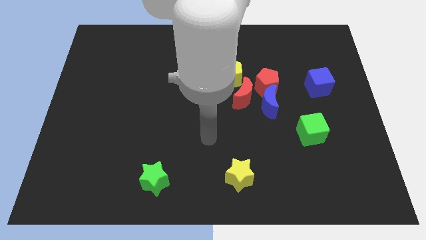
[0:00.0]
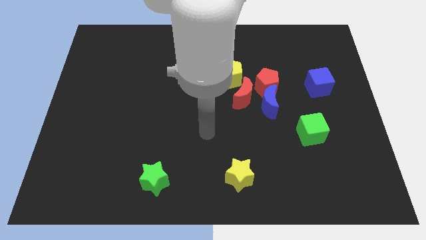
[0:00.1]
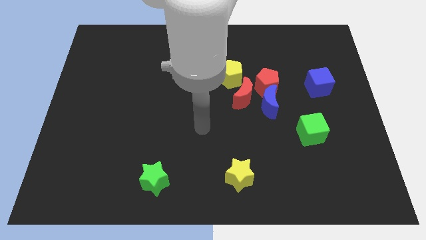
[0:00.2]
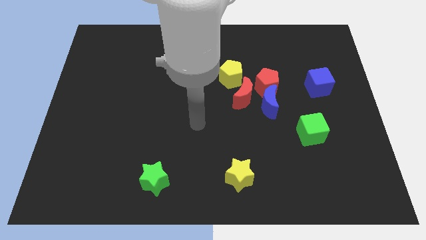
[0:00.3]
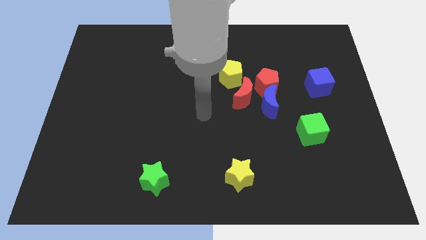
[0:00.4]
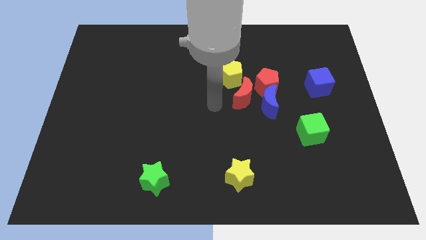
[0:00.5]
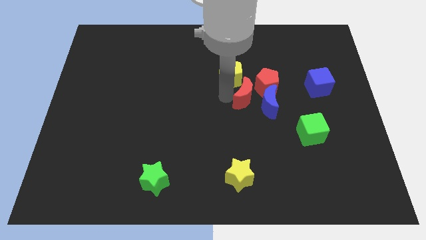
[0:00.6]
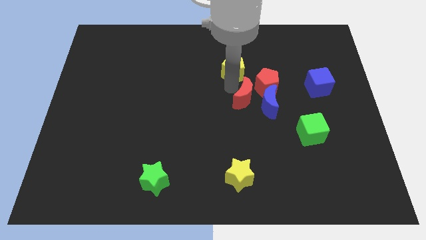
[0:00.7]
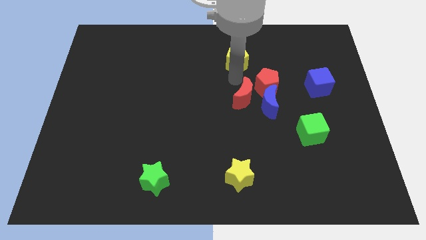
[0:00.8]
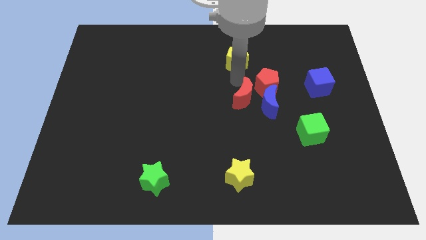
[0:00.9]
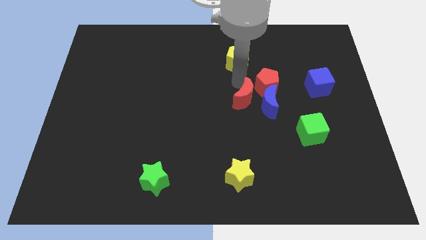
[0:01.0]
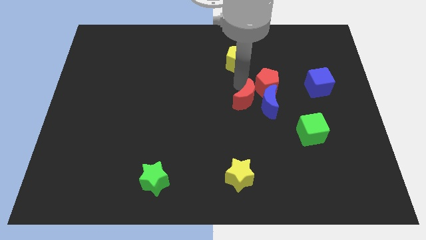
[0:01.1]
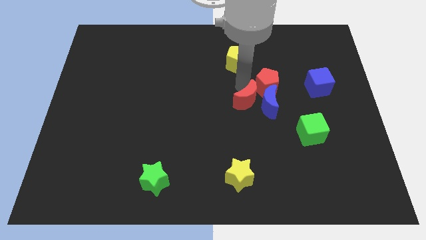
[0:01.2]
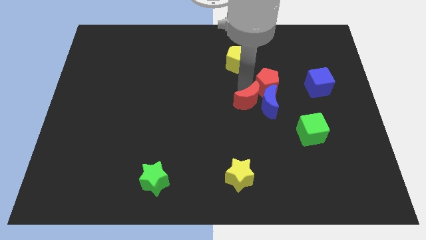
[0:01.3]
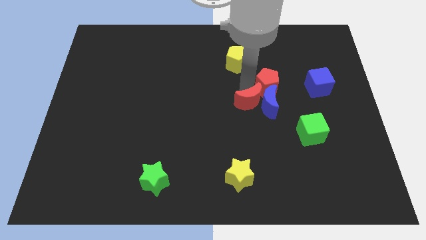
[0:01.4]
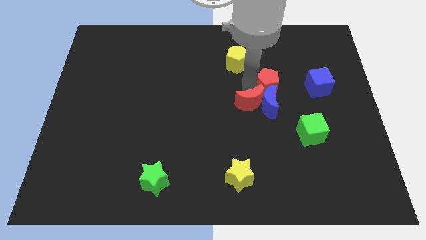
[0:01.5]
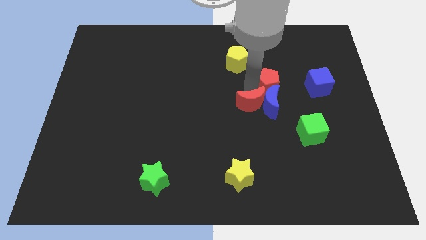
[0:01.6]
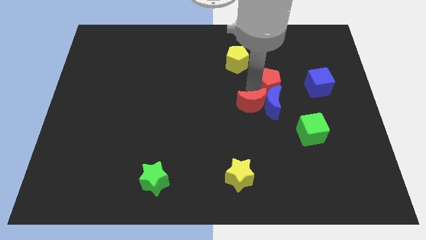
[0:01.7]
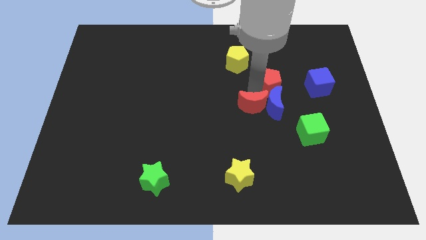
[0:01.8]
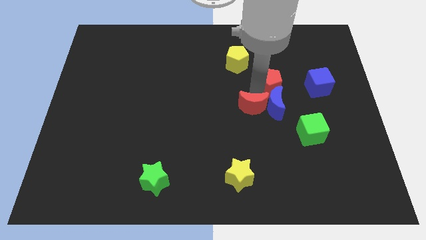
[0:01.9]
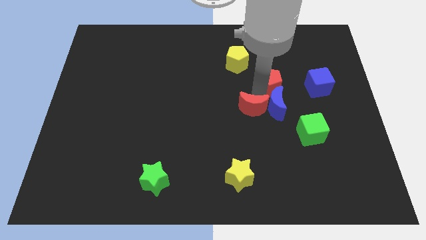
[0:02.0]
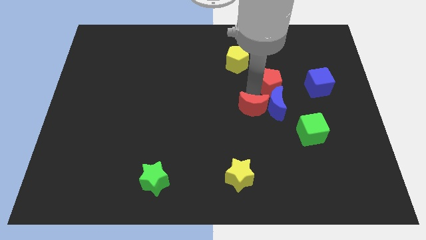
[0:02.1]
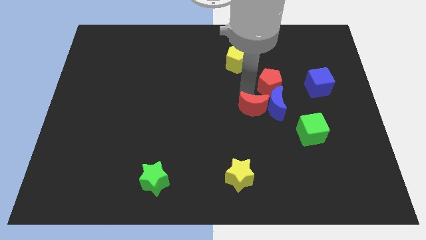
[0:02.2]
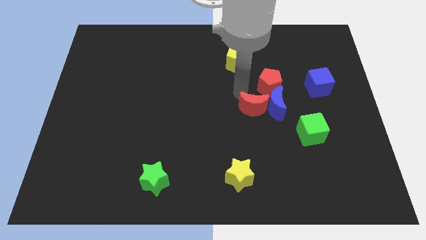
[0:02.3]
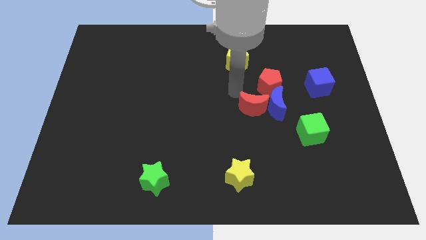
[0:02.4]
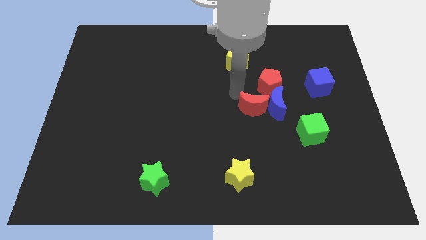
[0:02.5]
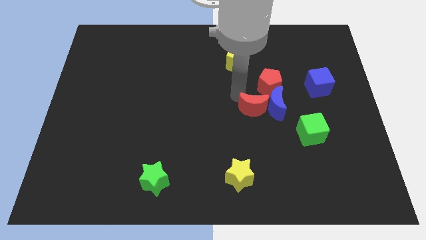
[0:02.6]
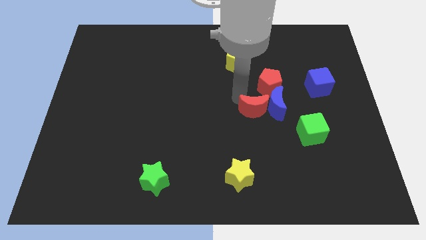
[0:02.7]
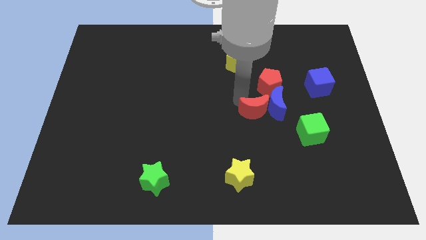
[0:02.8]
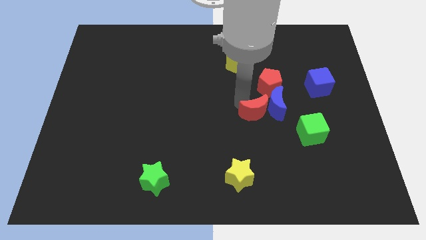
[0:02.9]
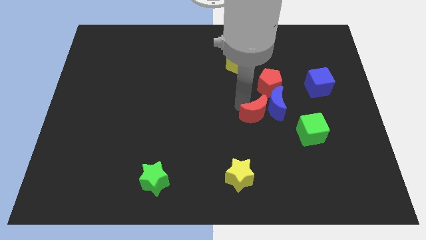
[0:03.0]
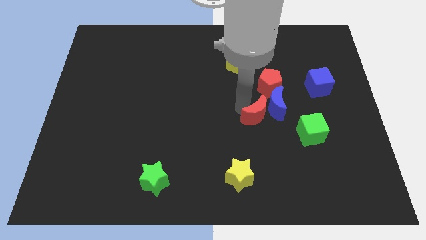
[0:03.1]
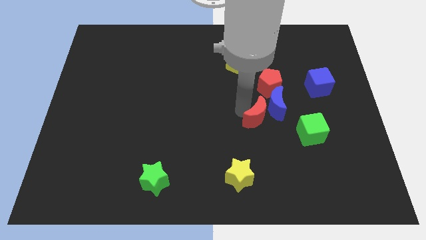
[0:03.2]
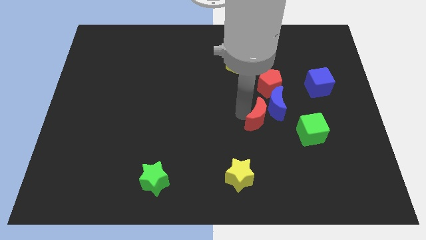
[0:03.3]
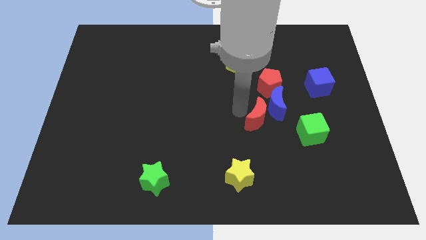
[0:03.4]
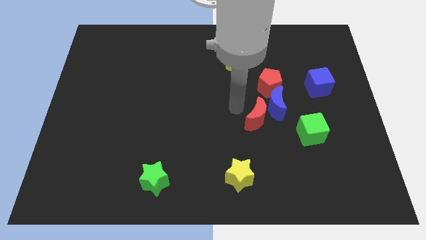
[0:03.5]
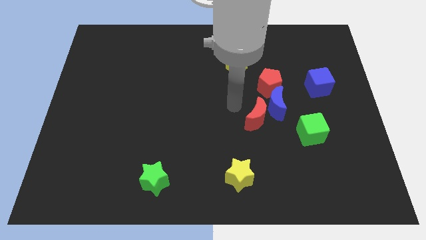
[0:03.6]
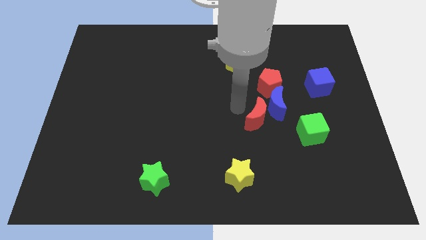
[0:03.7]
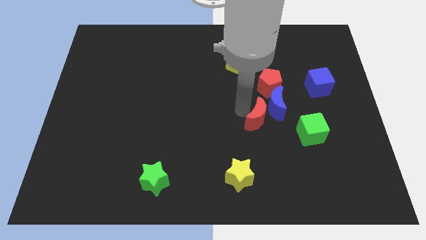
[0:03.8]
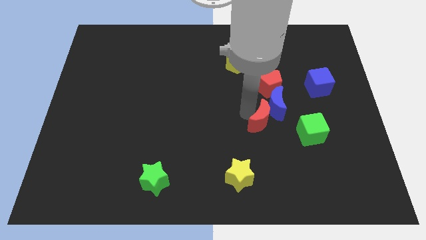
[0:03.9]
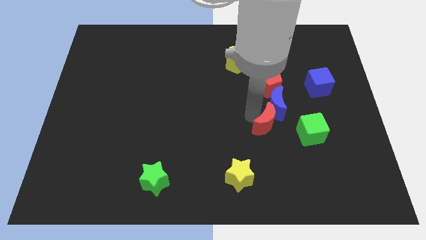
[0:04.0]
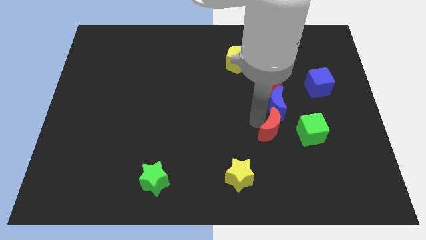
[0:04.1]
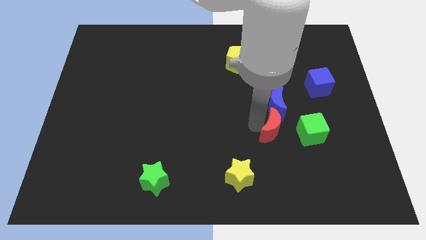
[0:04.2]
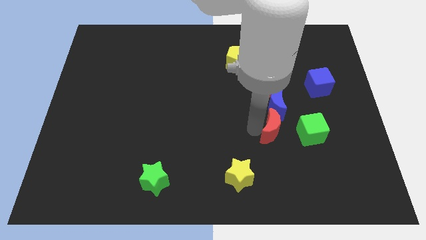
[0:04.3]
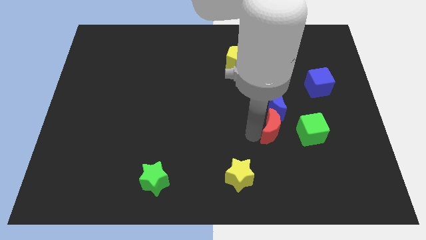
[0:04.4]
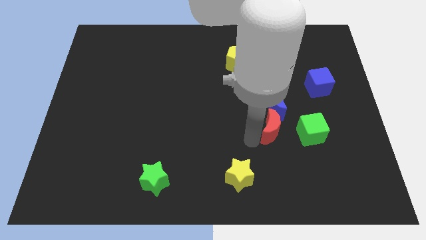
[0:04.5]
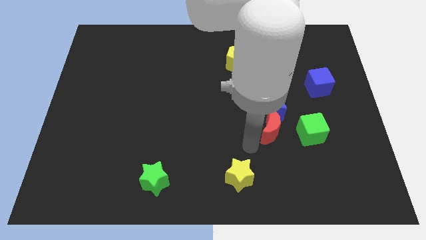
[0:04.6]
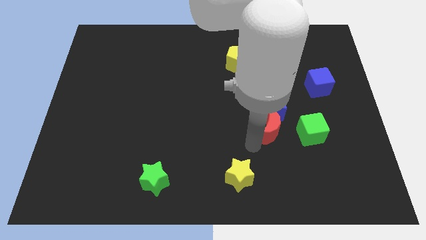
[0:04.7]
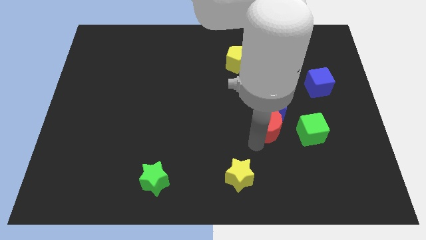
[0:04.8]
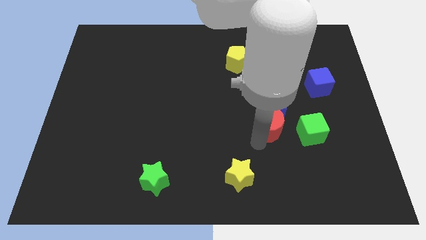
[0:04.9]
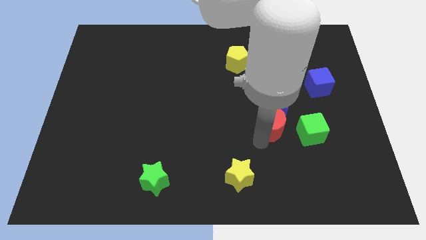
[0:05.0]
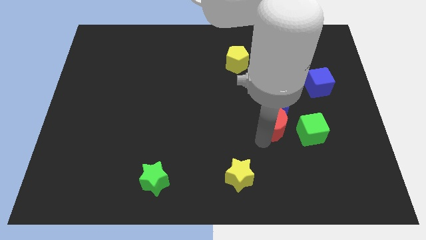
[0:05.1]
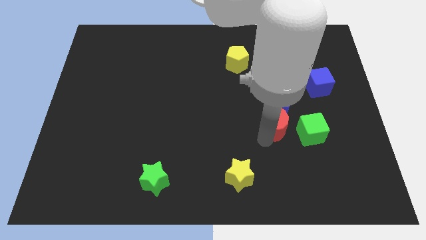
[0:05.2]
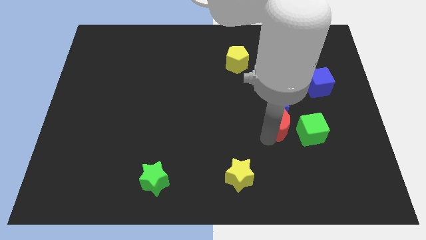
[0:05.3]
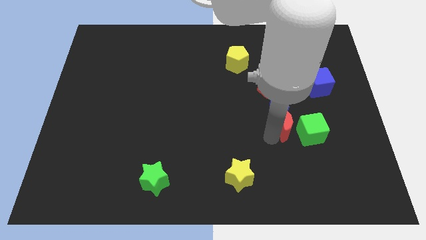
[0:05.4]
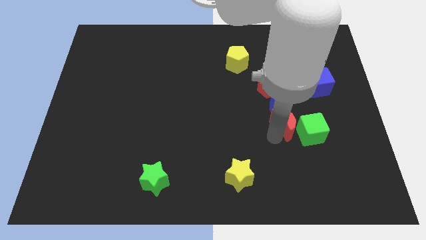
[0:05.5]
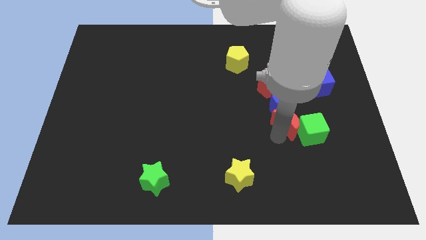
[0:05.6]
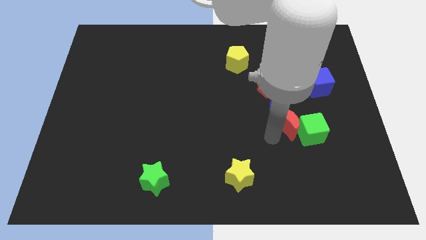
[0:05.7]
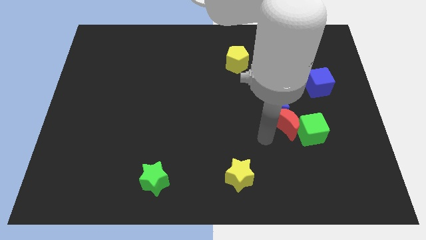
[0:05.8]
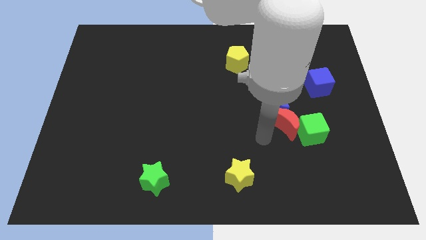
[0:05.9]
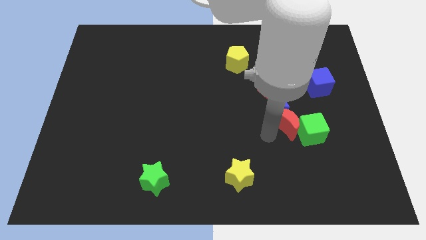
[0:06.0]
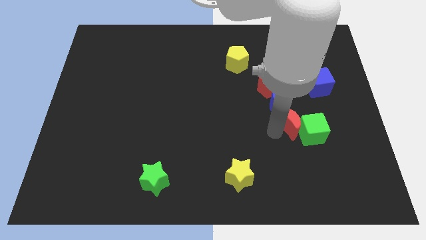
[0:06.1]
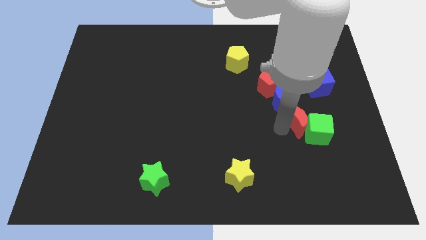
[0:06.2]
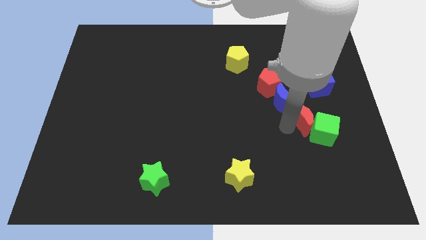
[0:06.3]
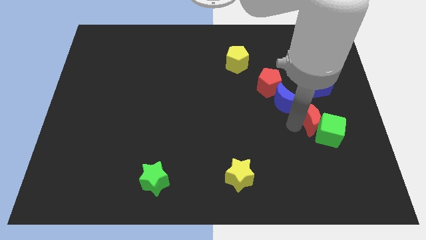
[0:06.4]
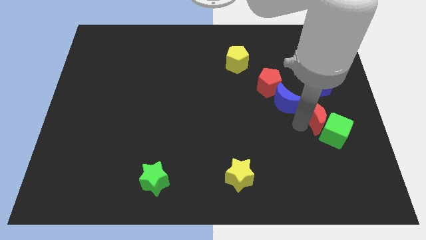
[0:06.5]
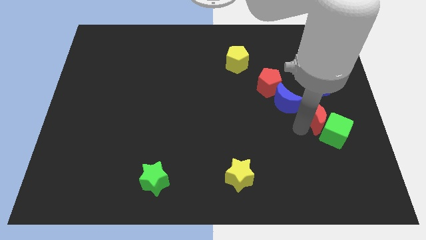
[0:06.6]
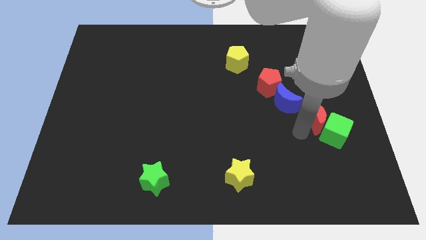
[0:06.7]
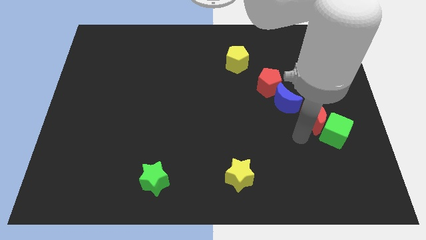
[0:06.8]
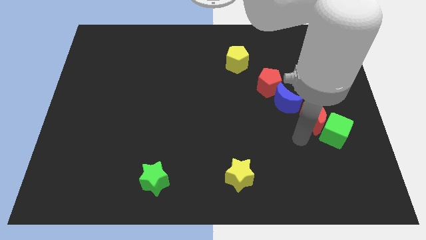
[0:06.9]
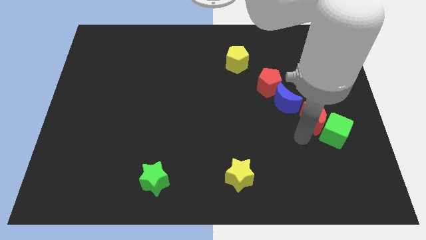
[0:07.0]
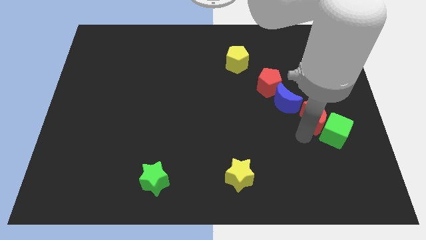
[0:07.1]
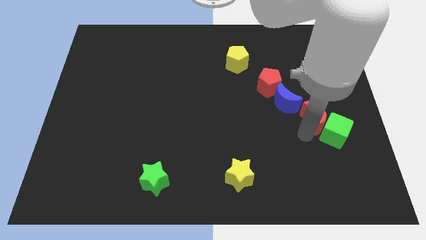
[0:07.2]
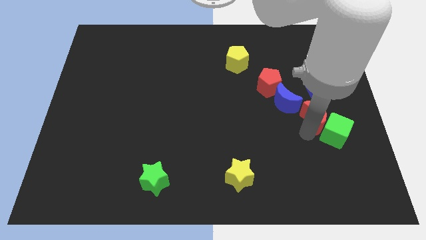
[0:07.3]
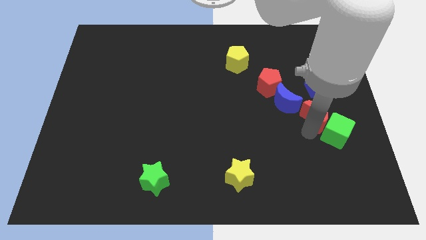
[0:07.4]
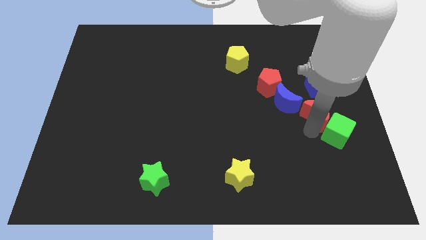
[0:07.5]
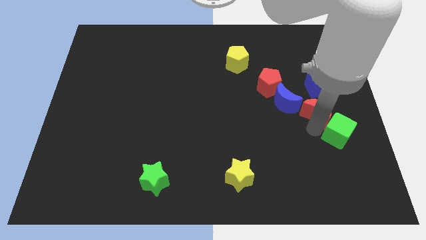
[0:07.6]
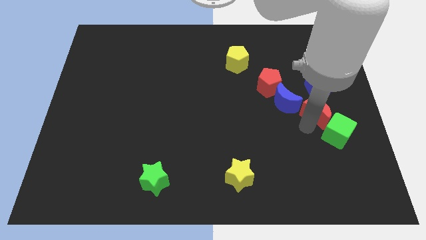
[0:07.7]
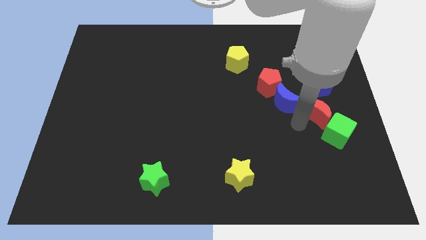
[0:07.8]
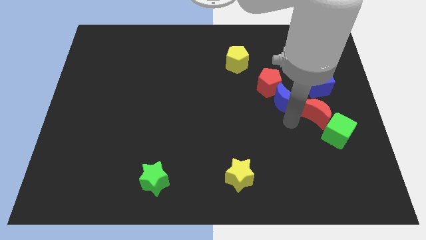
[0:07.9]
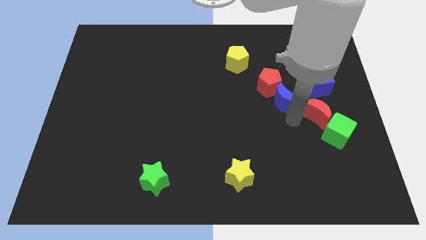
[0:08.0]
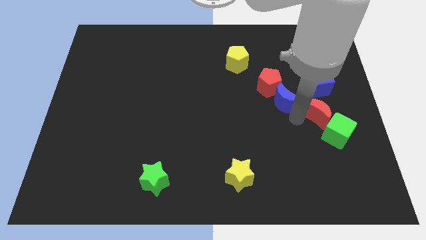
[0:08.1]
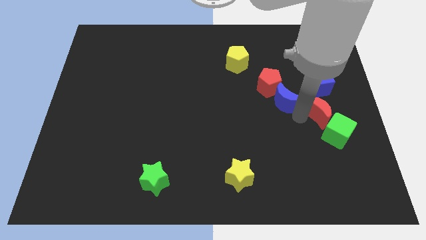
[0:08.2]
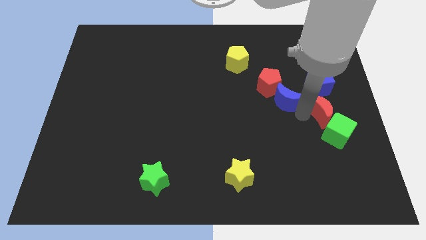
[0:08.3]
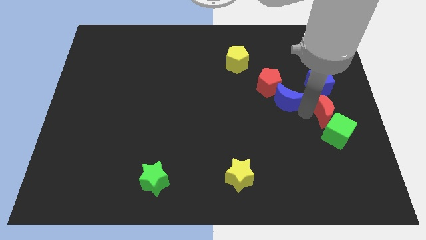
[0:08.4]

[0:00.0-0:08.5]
slide the red moon to the right side
